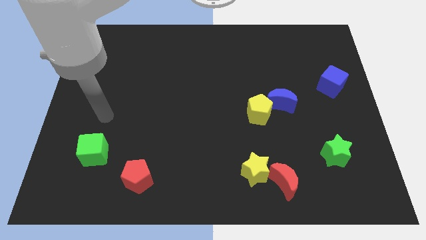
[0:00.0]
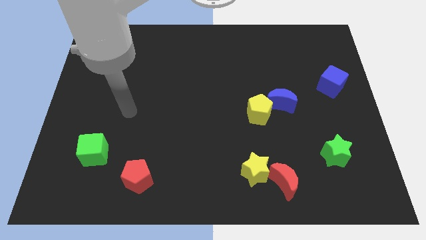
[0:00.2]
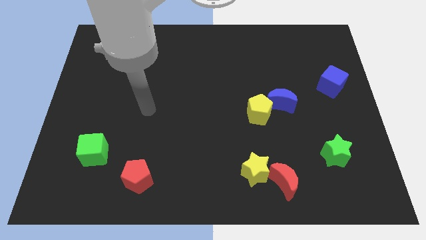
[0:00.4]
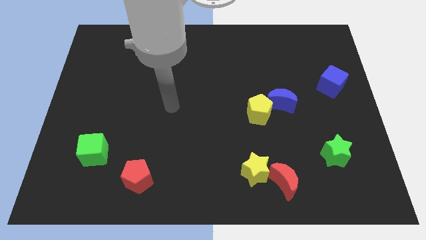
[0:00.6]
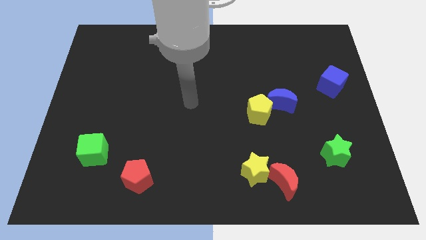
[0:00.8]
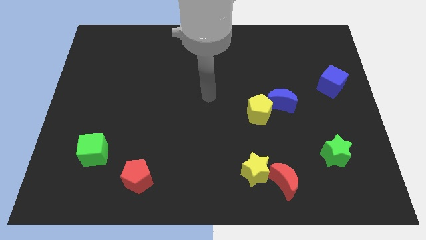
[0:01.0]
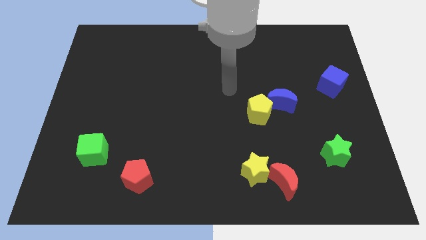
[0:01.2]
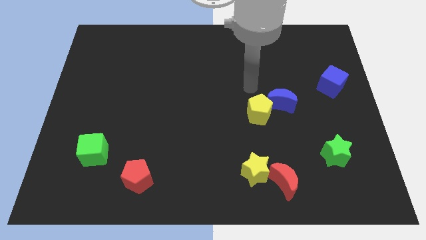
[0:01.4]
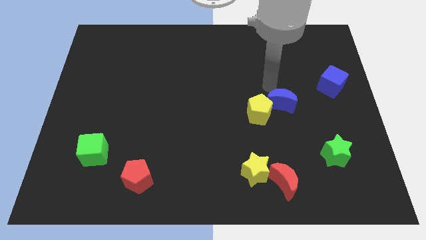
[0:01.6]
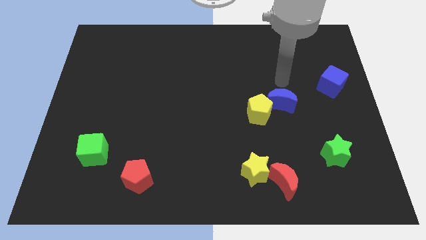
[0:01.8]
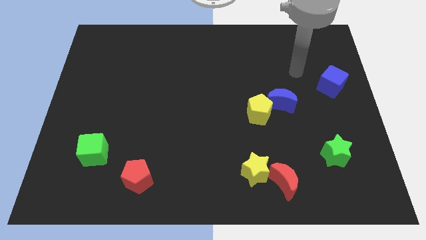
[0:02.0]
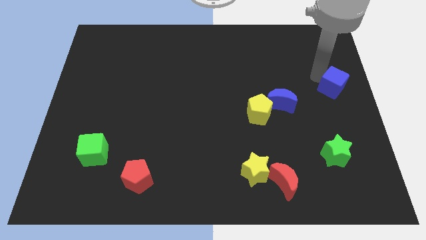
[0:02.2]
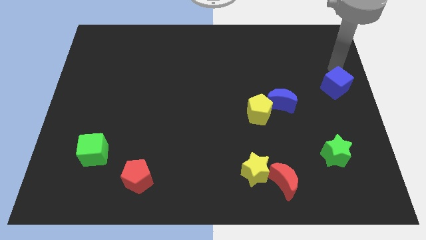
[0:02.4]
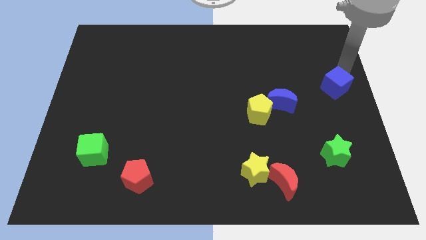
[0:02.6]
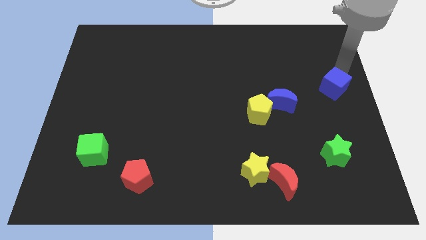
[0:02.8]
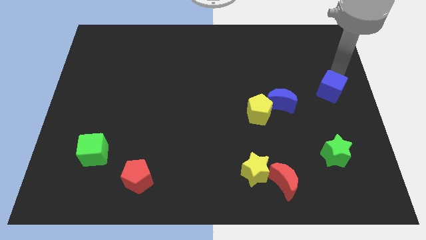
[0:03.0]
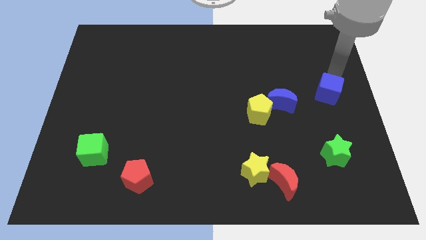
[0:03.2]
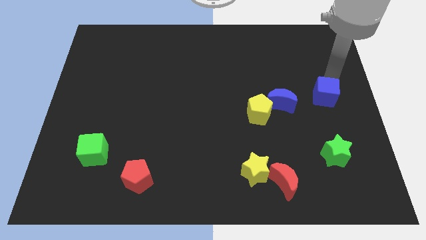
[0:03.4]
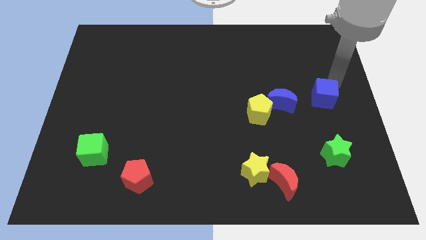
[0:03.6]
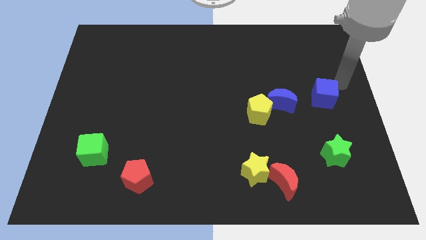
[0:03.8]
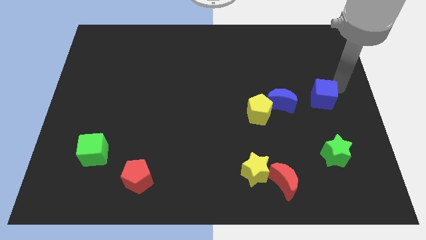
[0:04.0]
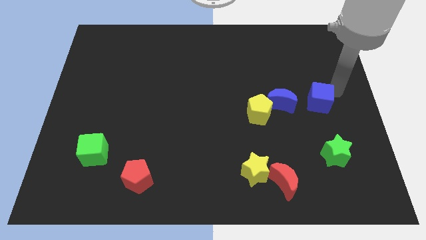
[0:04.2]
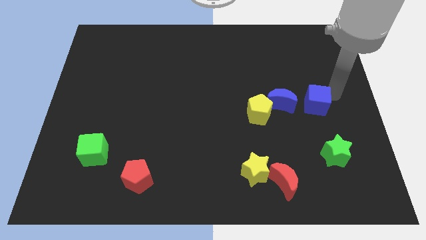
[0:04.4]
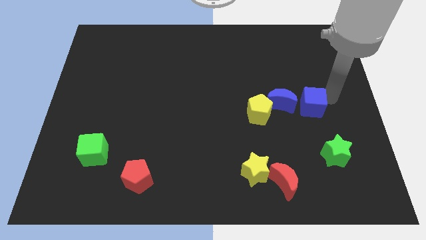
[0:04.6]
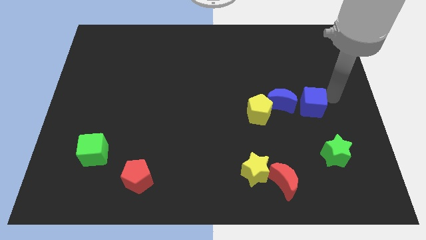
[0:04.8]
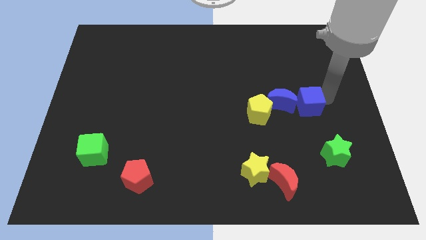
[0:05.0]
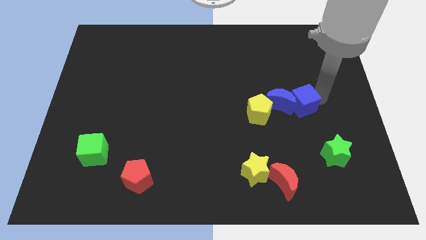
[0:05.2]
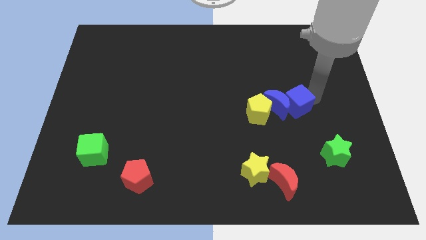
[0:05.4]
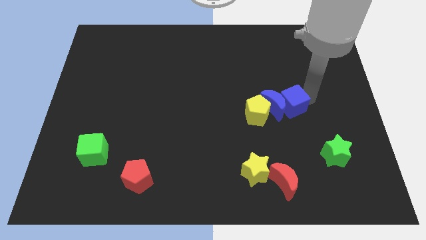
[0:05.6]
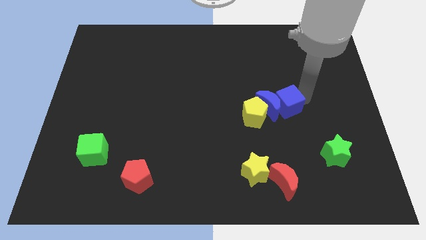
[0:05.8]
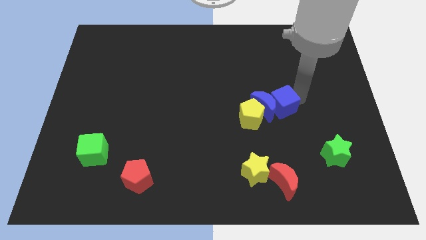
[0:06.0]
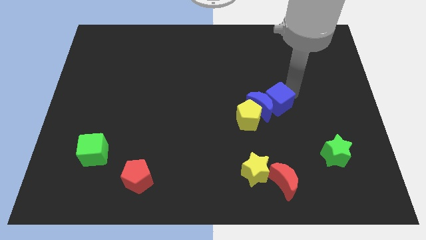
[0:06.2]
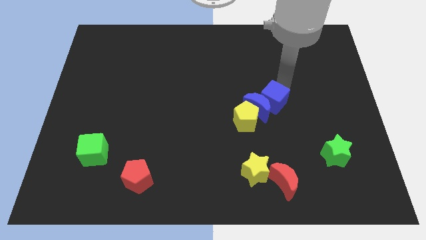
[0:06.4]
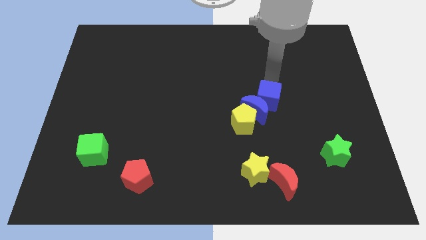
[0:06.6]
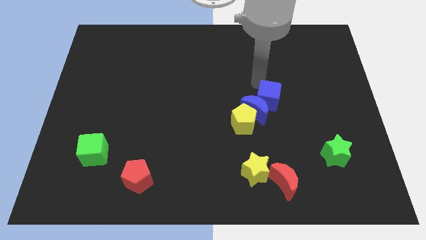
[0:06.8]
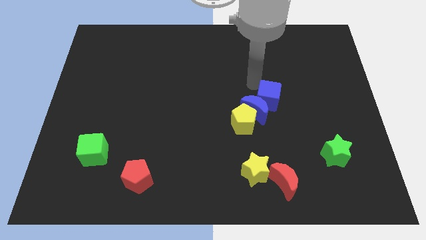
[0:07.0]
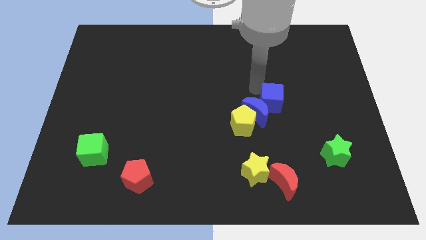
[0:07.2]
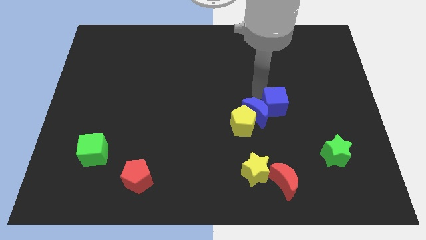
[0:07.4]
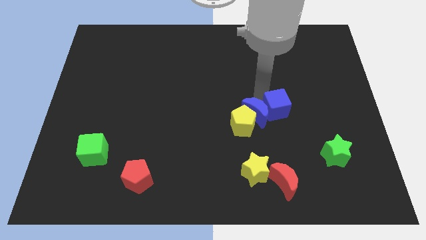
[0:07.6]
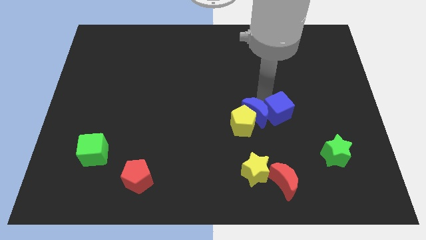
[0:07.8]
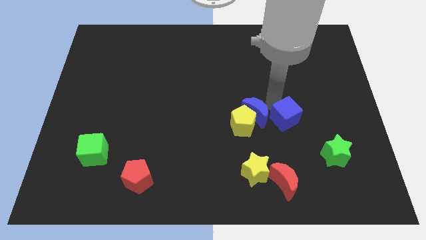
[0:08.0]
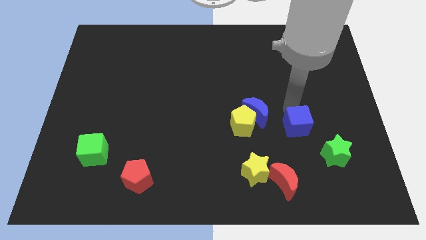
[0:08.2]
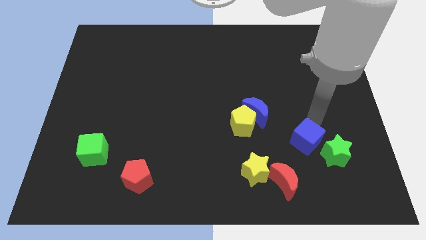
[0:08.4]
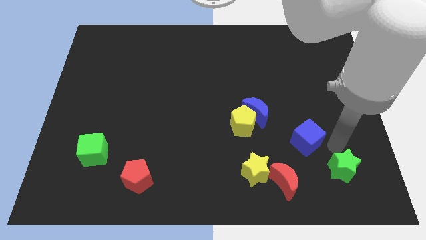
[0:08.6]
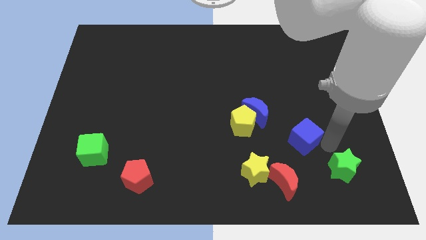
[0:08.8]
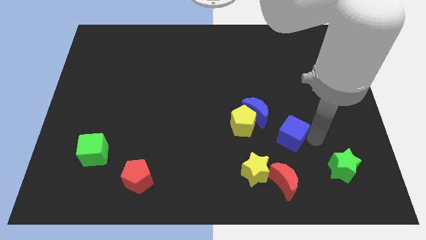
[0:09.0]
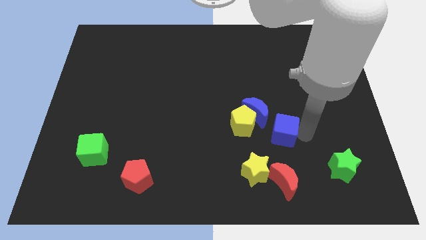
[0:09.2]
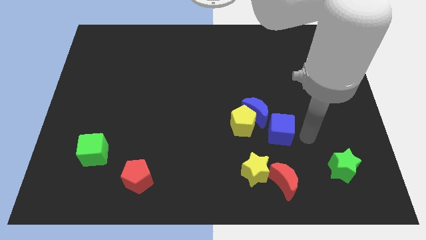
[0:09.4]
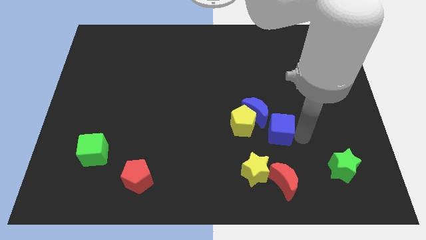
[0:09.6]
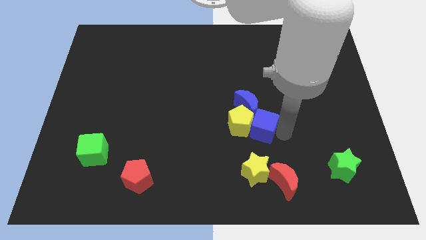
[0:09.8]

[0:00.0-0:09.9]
move the blue cube to the yellow pentagon

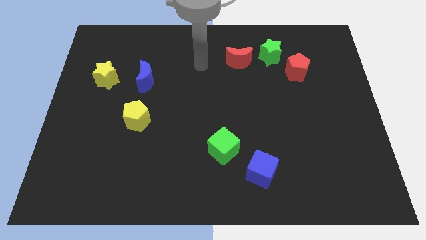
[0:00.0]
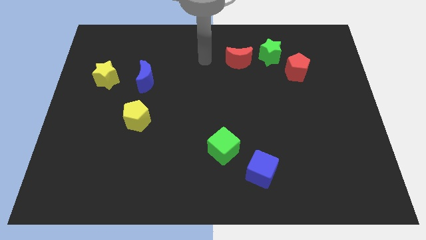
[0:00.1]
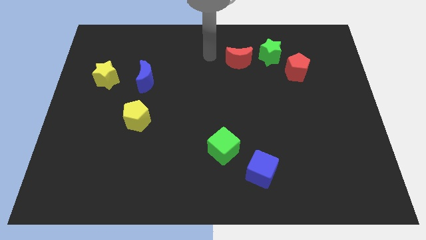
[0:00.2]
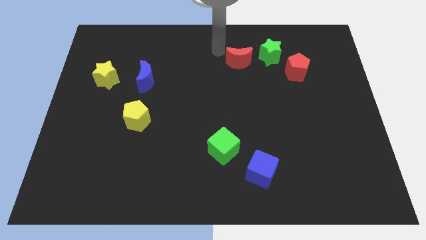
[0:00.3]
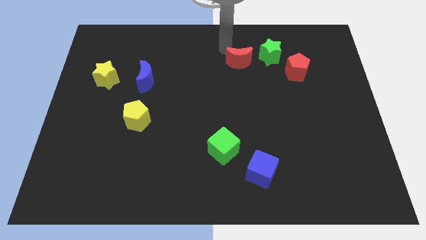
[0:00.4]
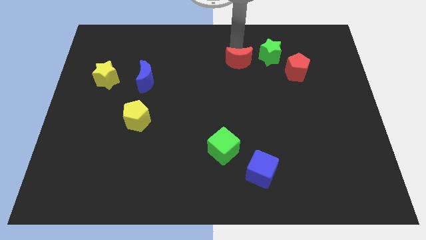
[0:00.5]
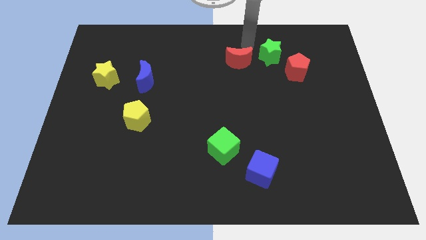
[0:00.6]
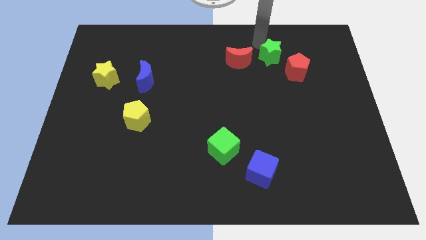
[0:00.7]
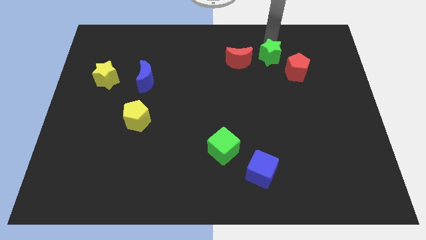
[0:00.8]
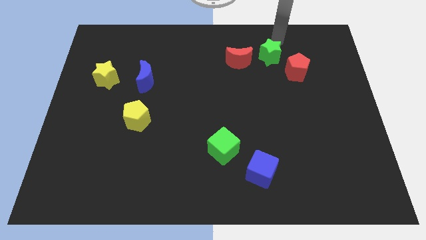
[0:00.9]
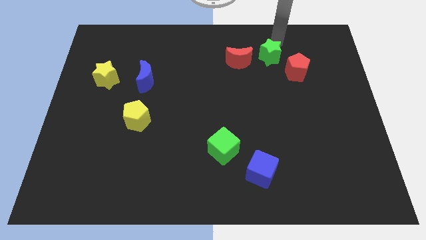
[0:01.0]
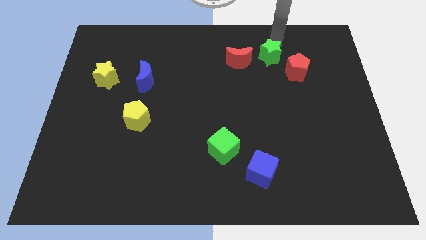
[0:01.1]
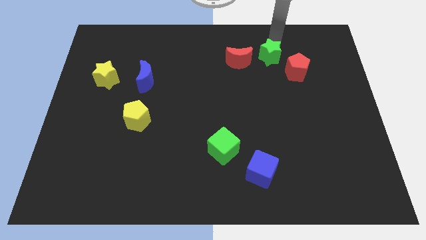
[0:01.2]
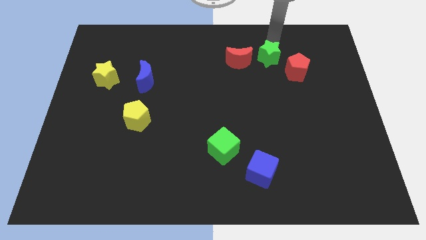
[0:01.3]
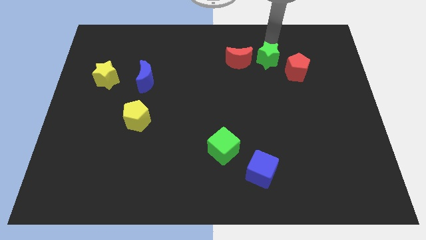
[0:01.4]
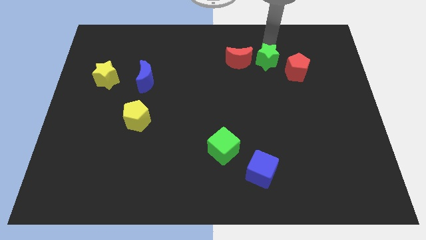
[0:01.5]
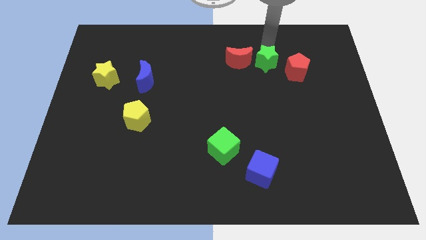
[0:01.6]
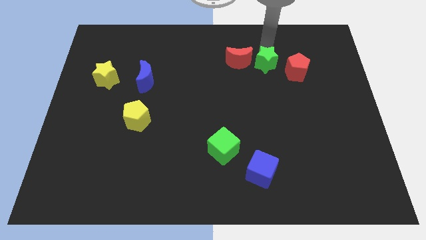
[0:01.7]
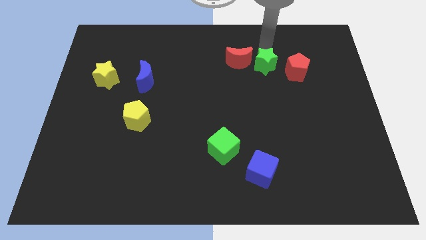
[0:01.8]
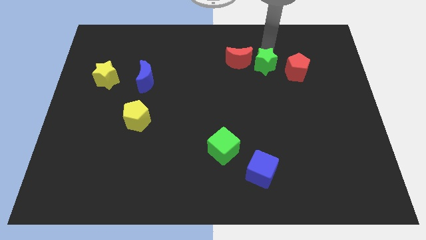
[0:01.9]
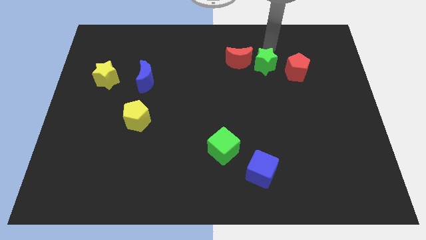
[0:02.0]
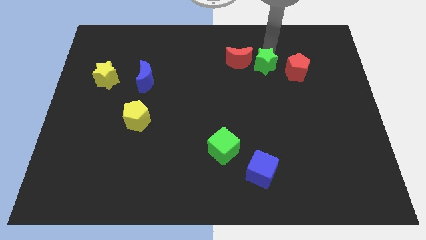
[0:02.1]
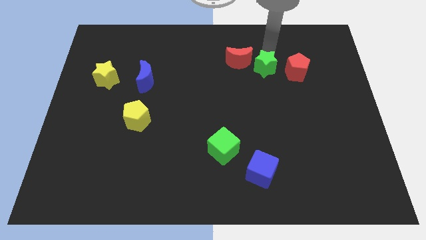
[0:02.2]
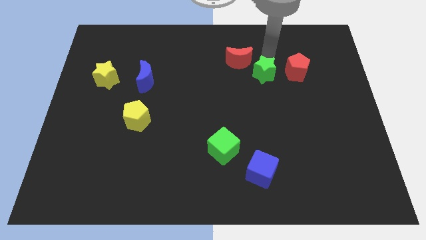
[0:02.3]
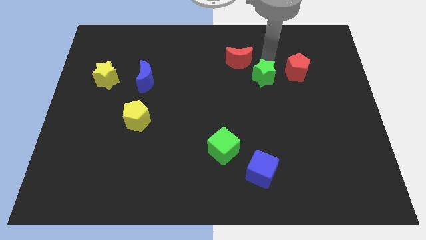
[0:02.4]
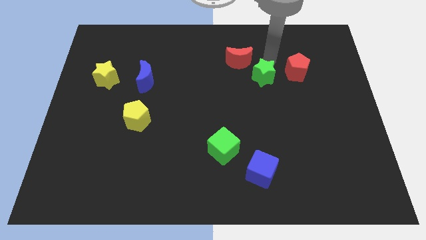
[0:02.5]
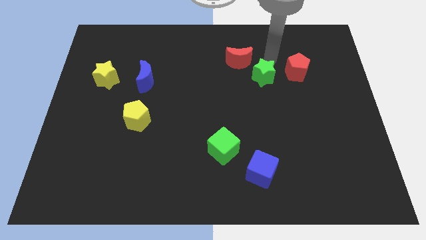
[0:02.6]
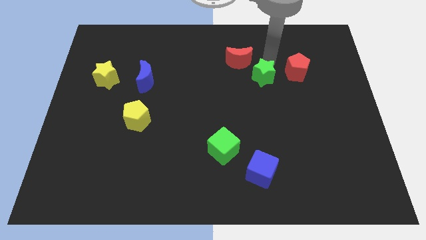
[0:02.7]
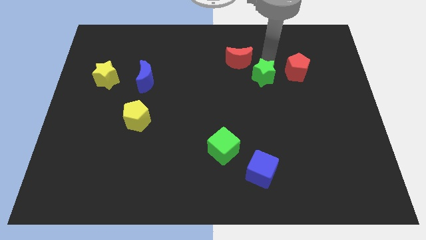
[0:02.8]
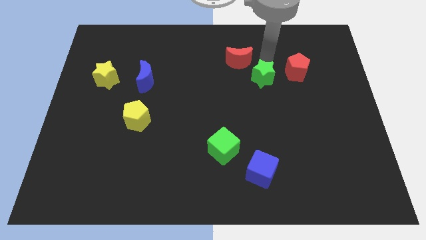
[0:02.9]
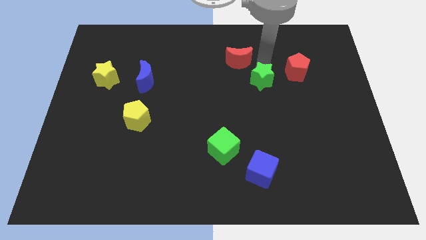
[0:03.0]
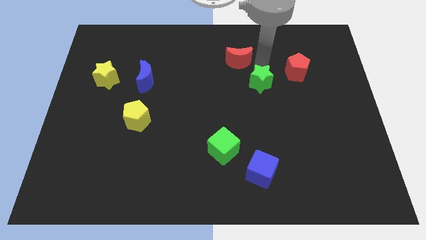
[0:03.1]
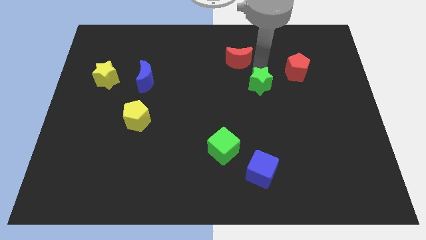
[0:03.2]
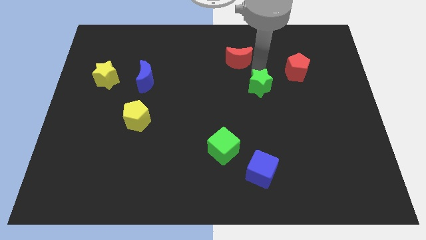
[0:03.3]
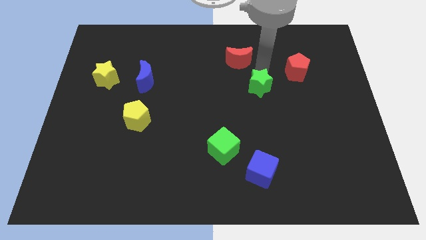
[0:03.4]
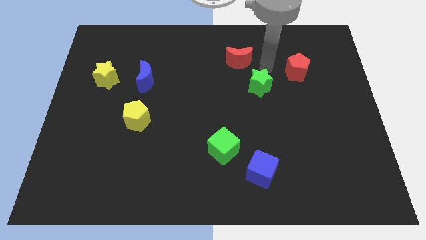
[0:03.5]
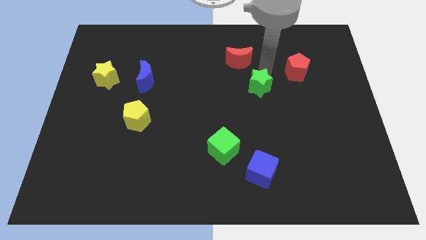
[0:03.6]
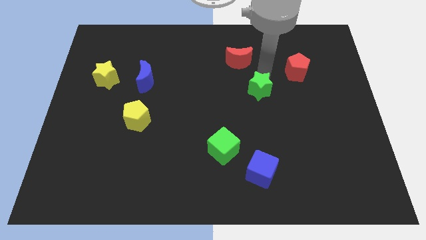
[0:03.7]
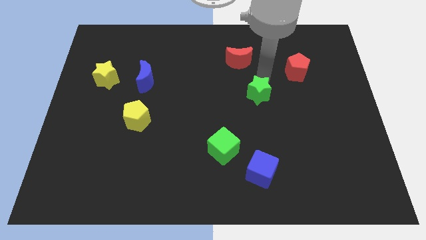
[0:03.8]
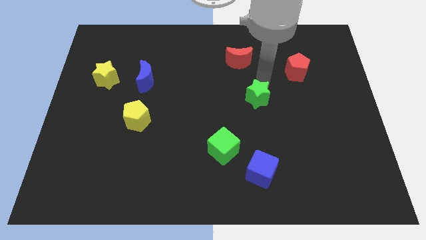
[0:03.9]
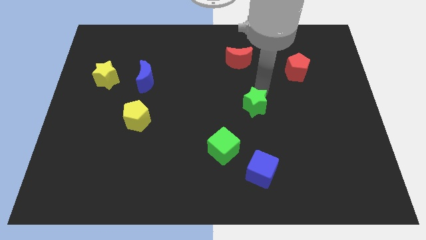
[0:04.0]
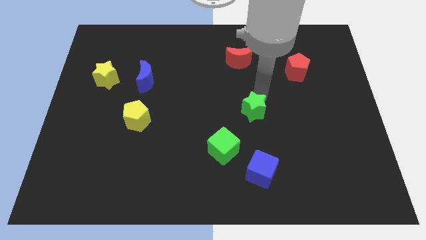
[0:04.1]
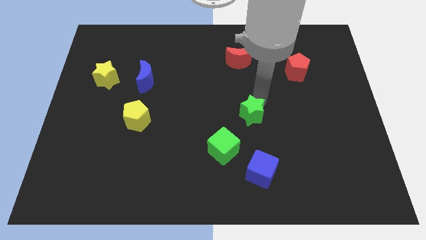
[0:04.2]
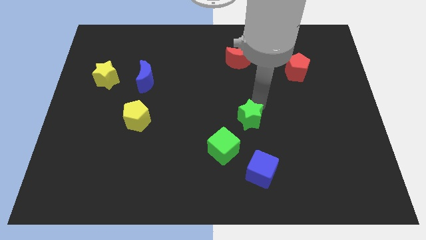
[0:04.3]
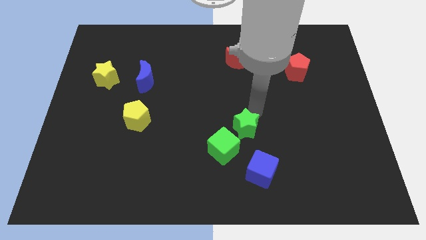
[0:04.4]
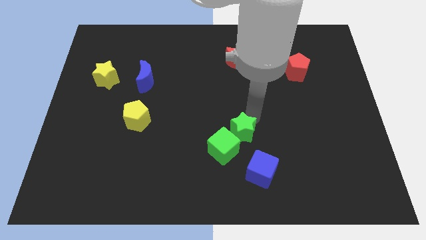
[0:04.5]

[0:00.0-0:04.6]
move the green star close to the green cube
